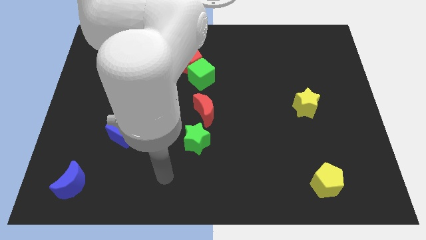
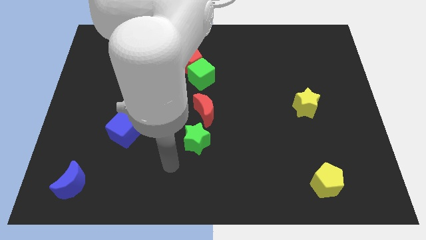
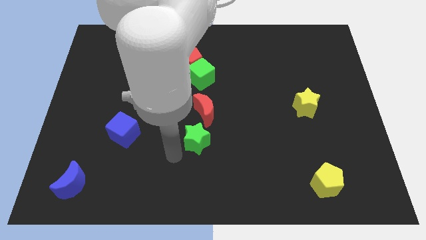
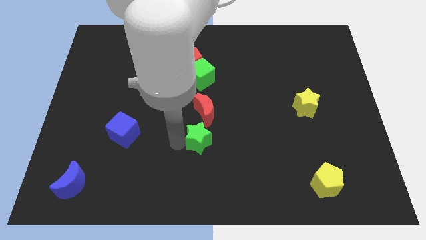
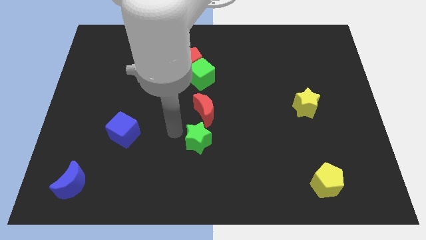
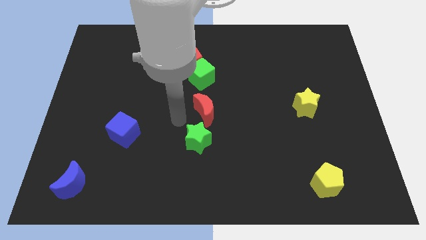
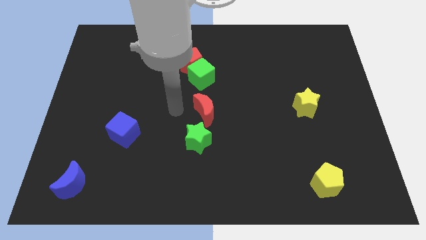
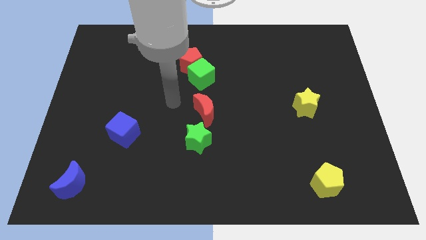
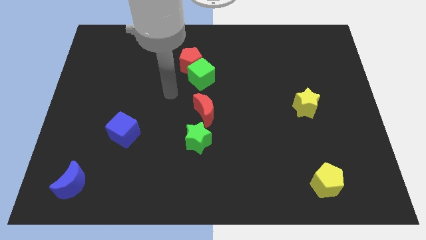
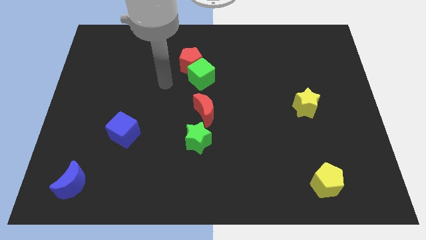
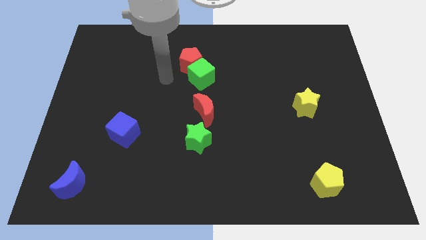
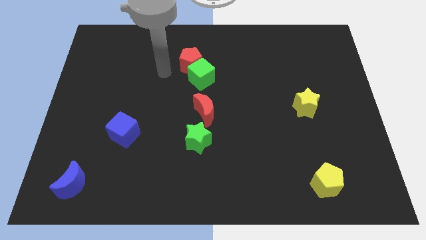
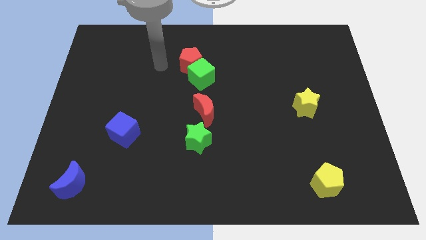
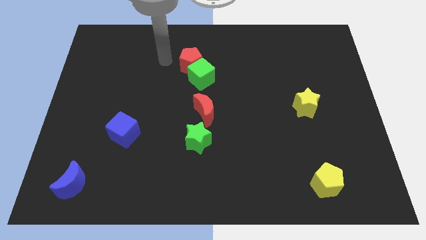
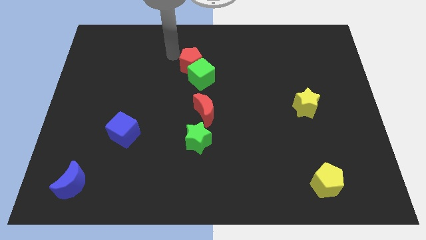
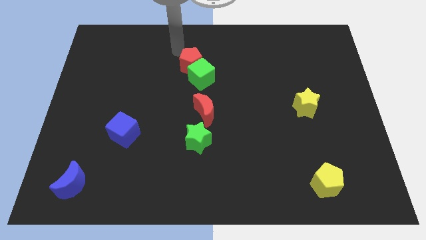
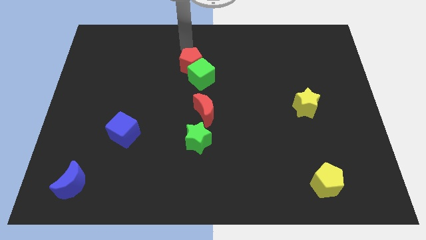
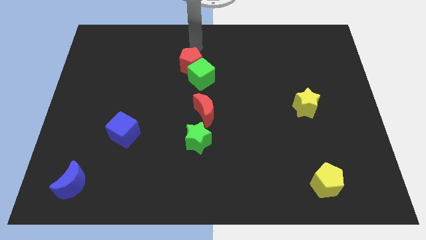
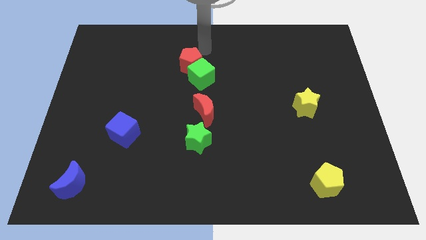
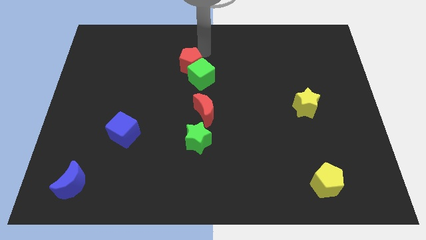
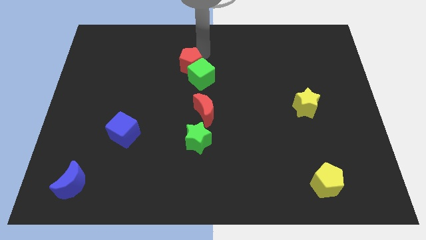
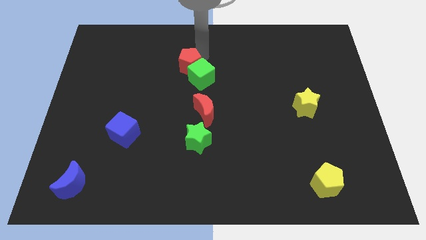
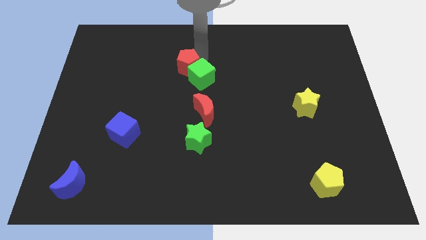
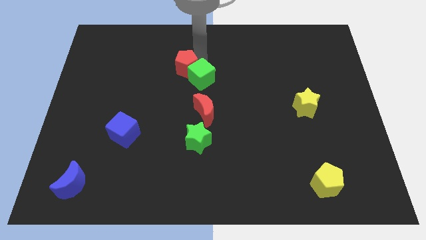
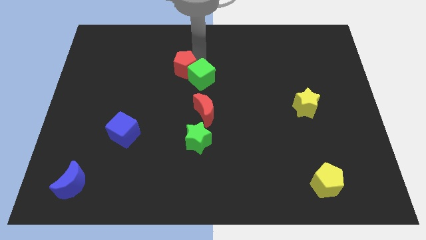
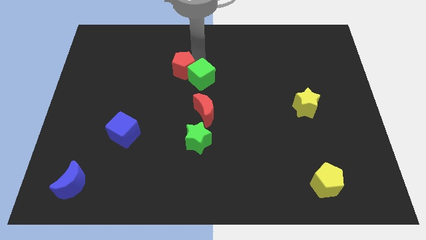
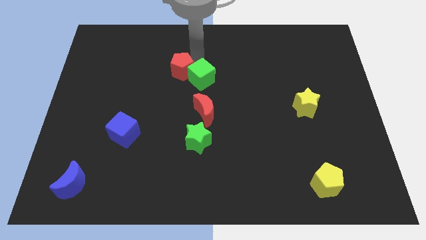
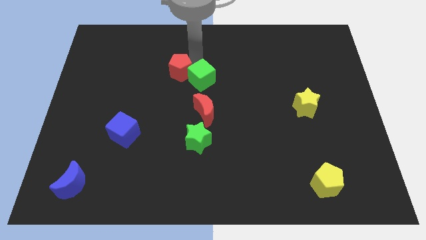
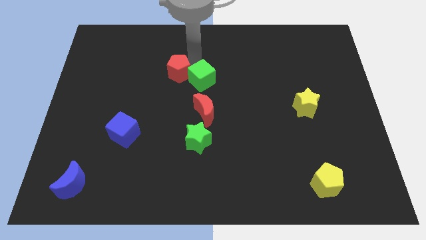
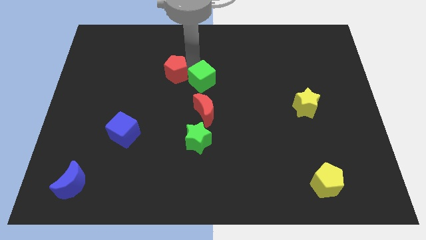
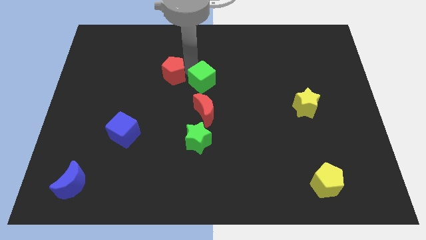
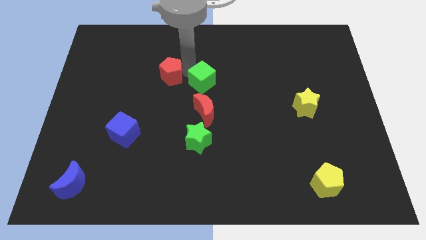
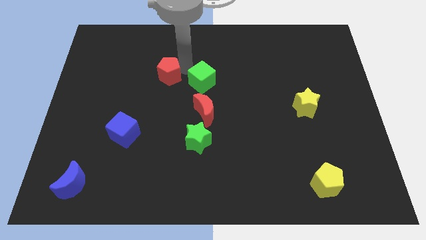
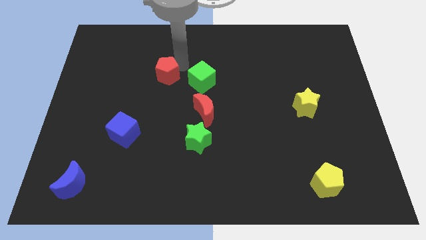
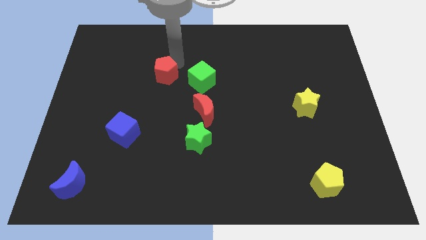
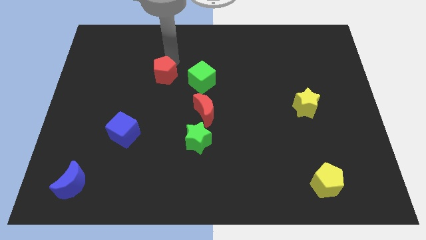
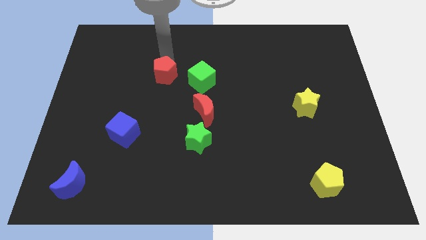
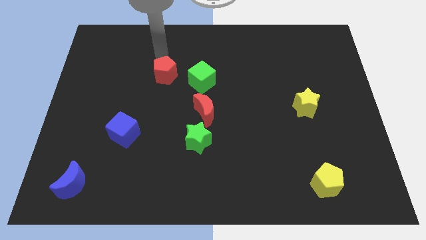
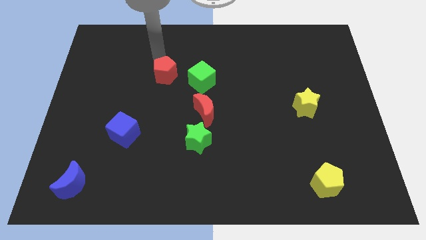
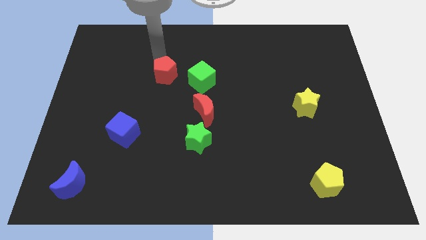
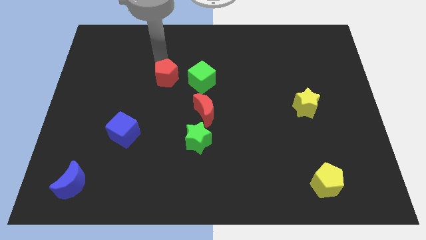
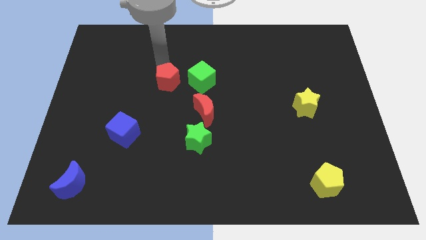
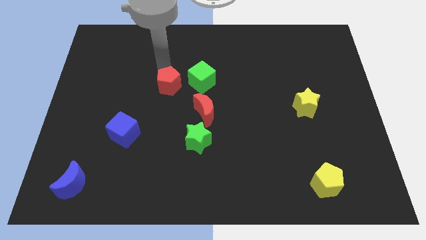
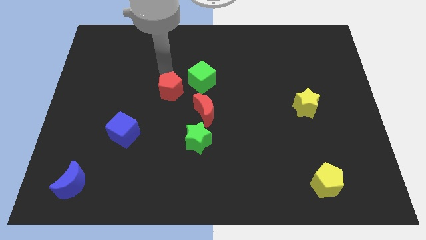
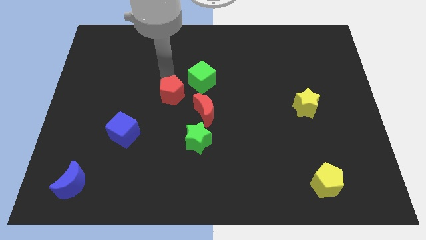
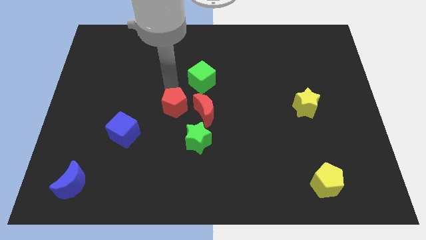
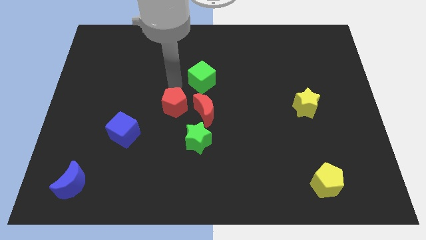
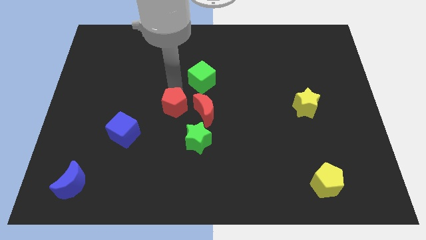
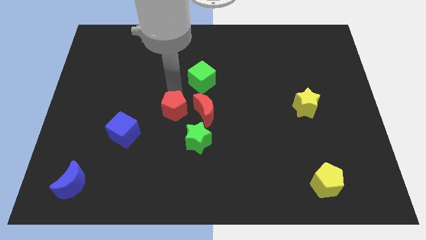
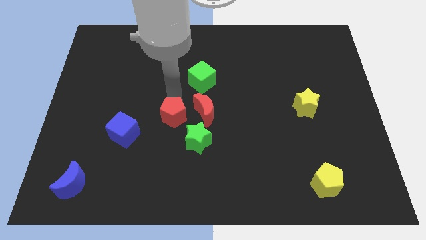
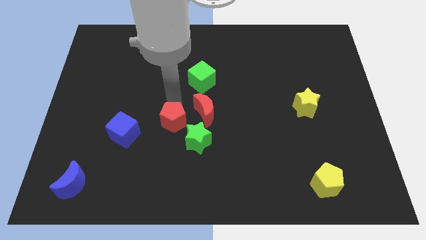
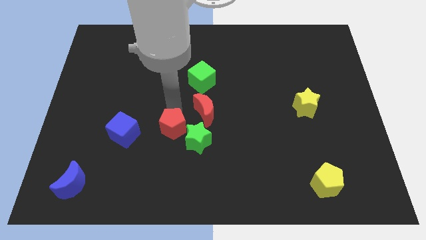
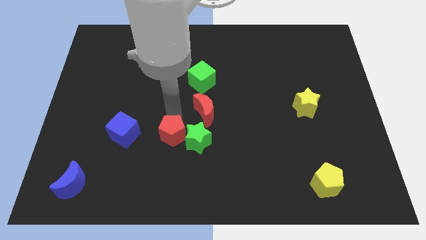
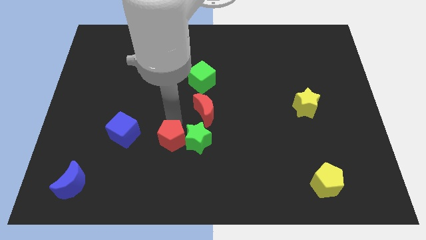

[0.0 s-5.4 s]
put the red pentagon to the bottom left side of the green star

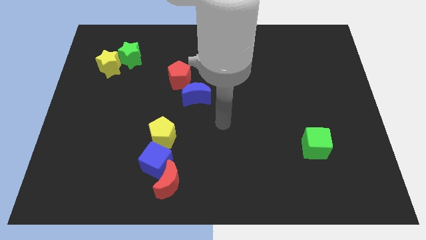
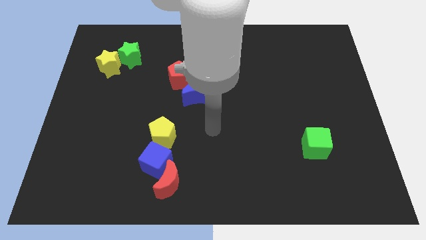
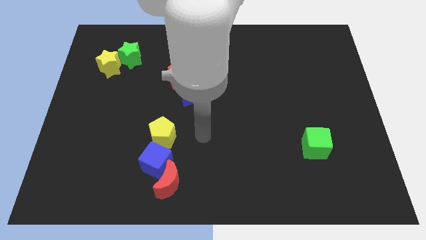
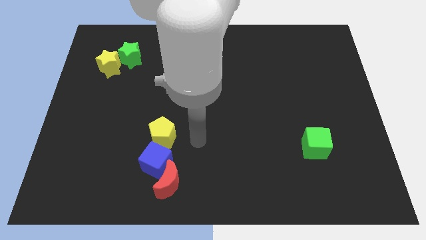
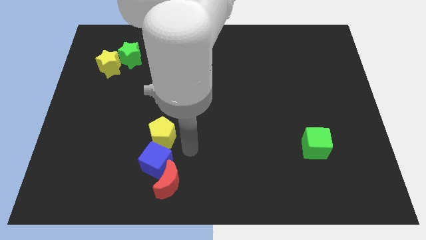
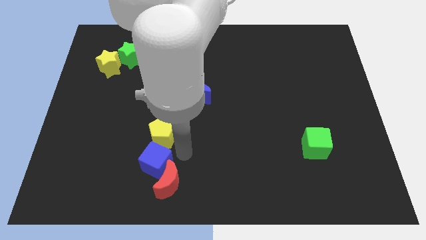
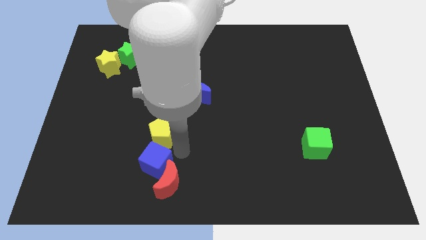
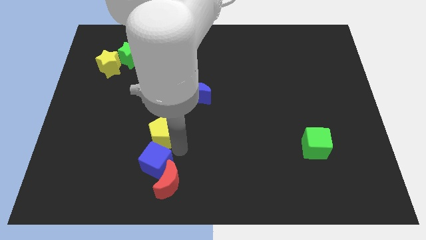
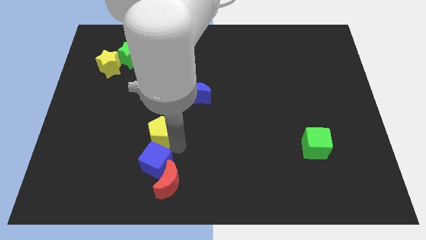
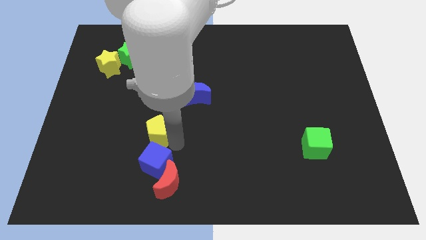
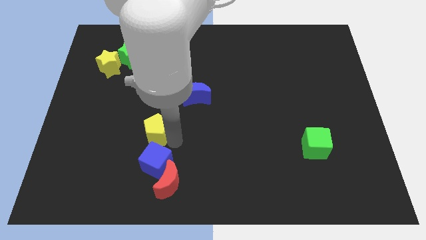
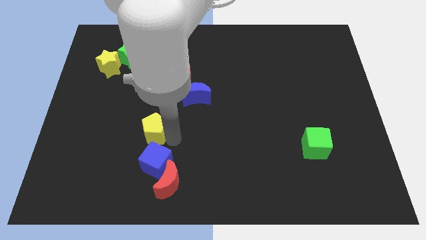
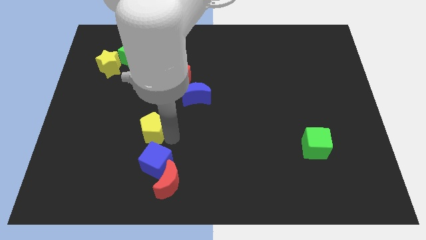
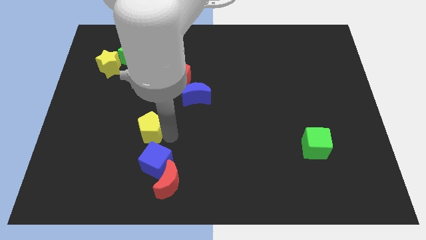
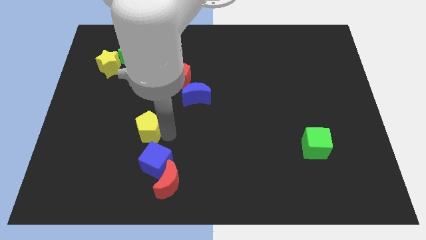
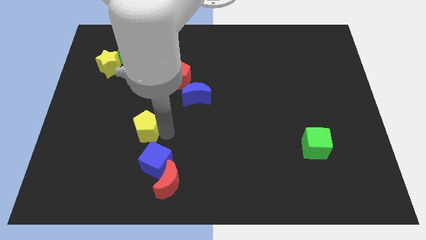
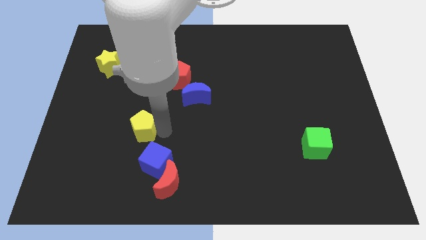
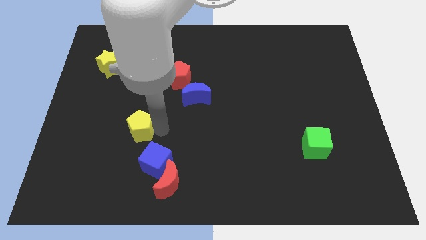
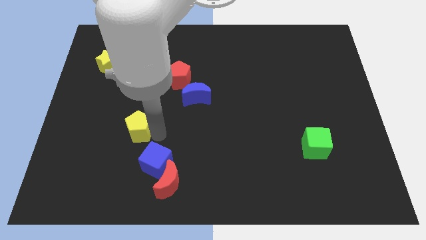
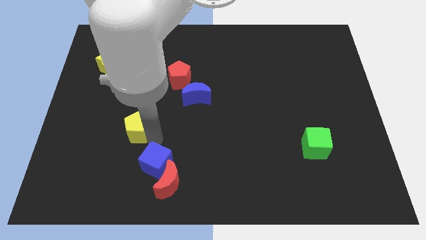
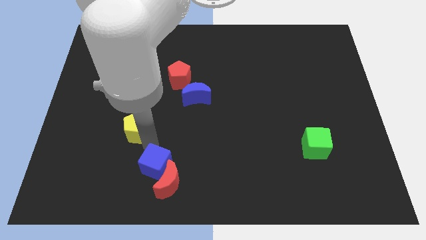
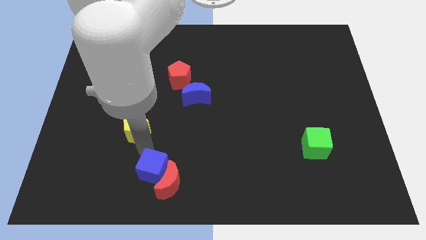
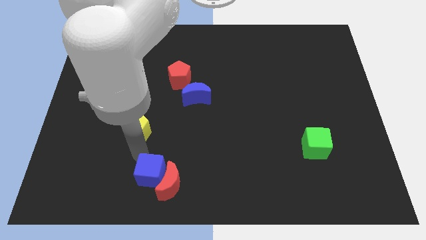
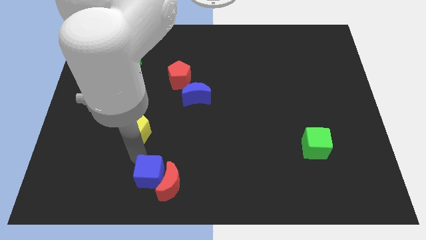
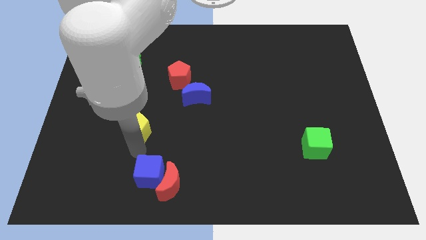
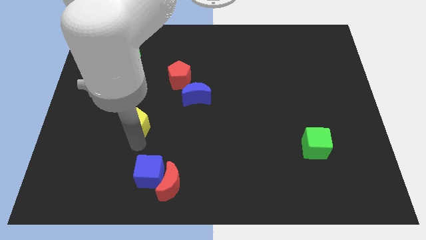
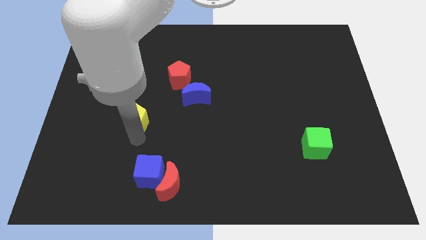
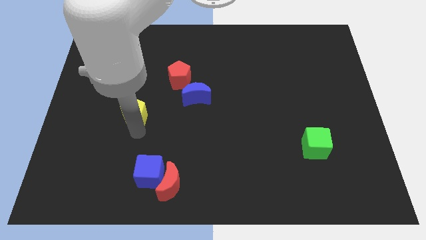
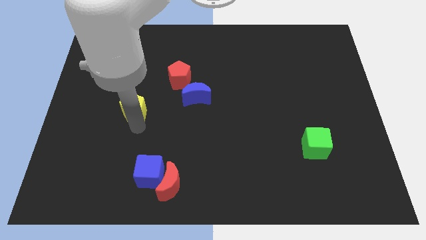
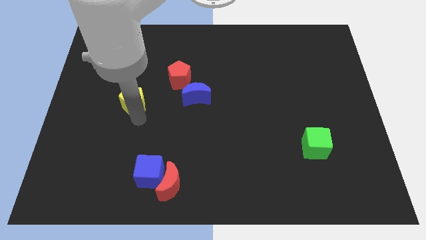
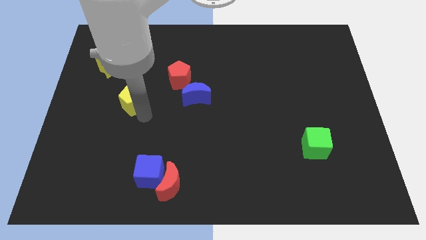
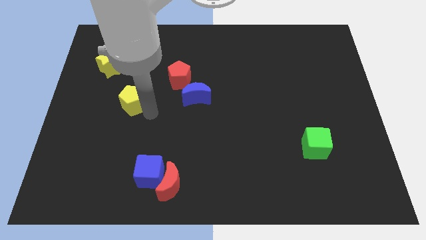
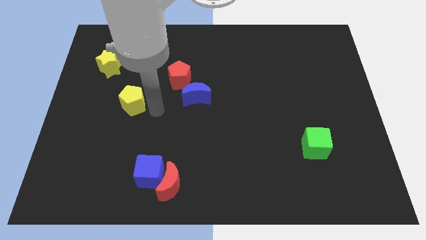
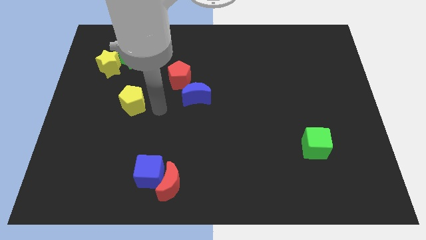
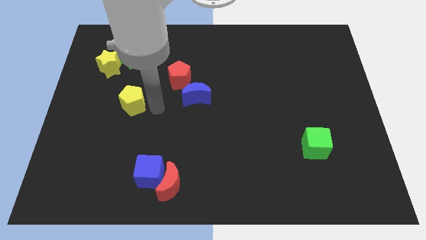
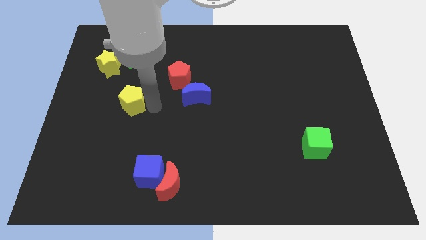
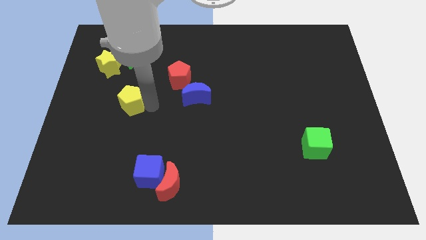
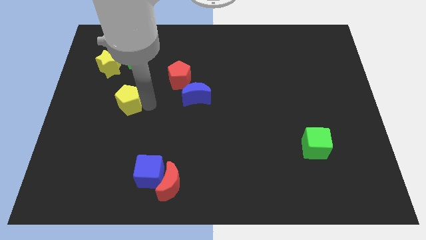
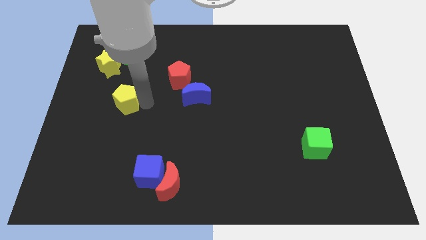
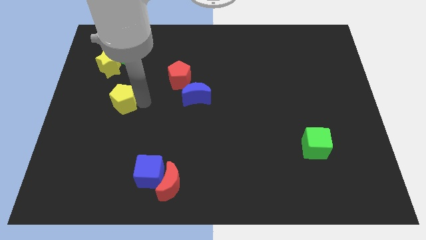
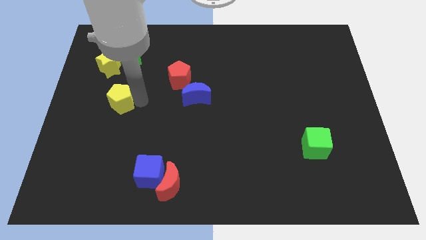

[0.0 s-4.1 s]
move the yellow pentagon below the yellow star
